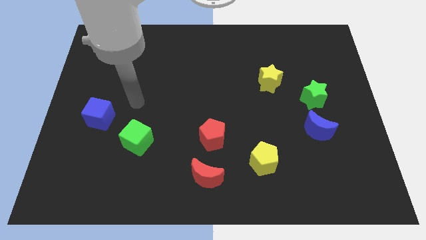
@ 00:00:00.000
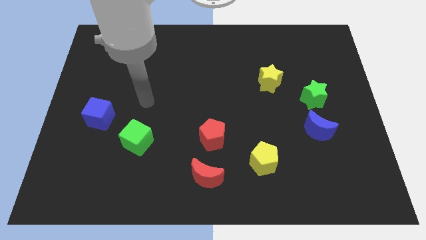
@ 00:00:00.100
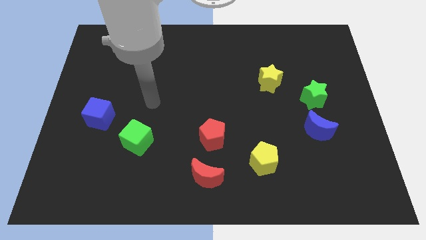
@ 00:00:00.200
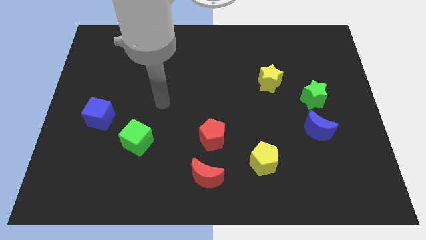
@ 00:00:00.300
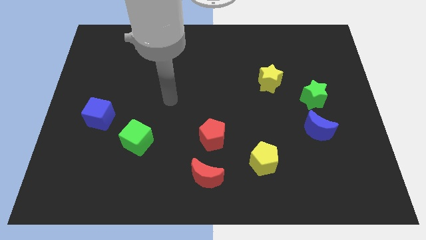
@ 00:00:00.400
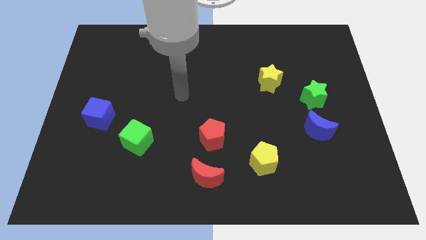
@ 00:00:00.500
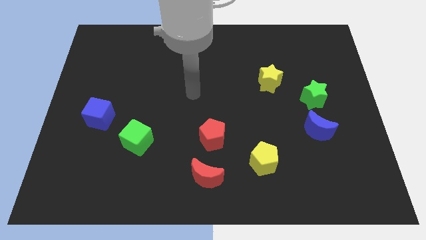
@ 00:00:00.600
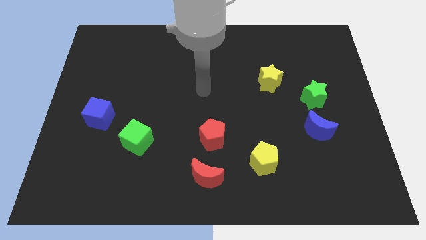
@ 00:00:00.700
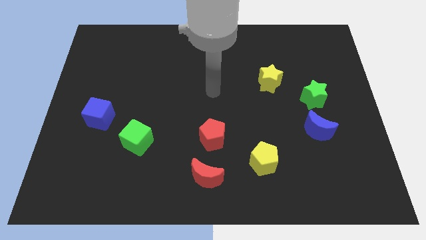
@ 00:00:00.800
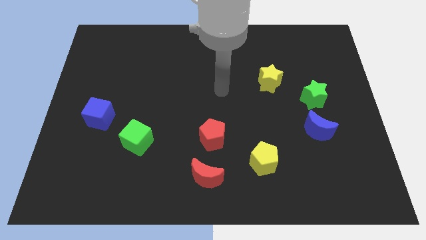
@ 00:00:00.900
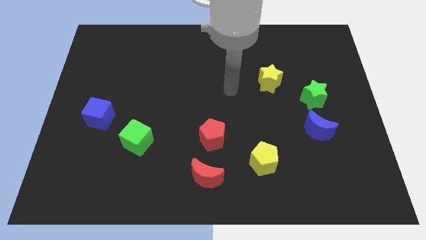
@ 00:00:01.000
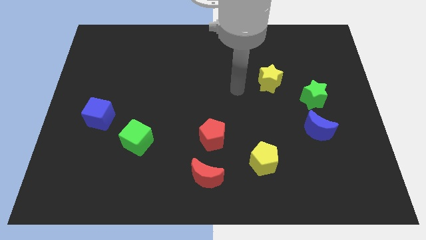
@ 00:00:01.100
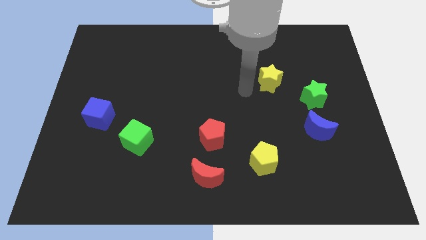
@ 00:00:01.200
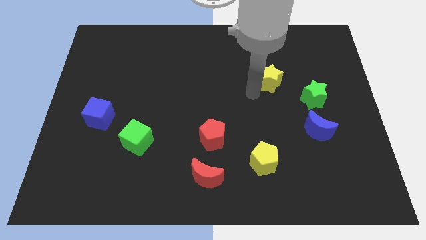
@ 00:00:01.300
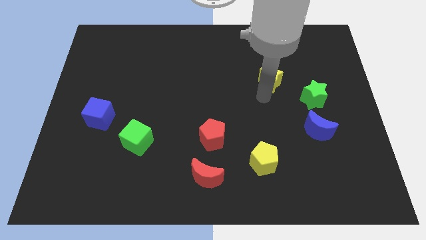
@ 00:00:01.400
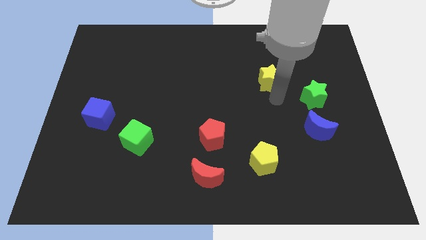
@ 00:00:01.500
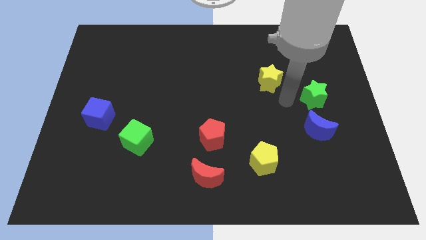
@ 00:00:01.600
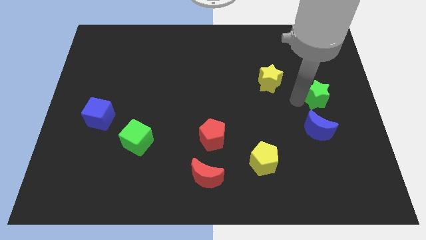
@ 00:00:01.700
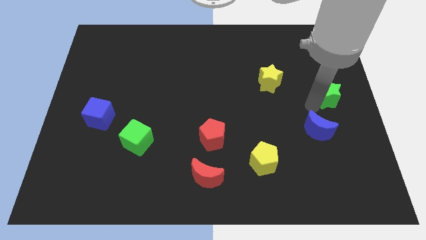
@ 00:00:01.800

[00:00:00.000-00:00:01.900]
pull the blue moon apart from the green star

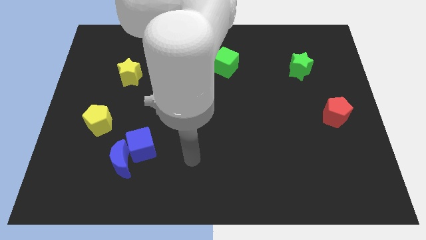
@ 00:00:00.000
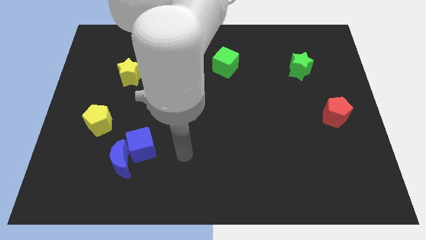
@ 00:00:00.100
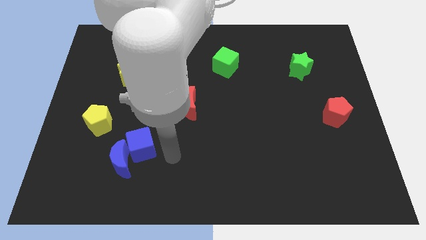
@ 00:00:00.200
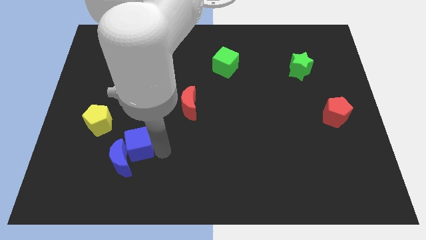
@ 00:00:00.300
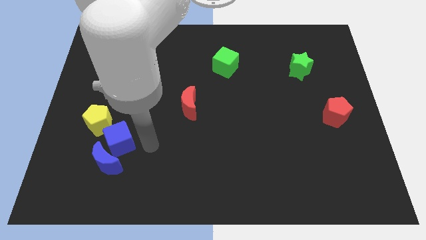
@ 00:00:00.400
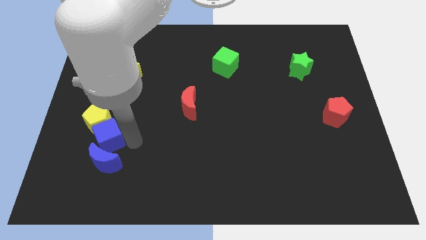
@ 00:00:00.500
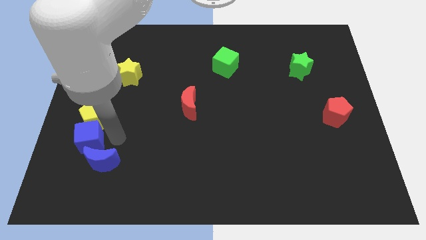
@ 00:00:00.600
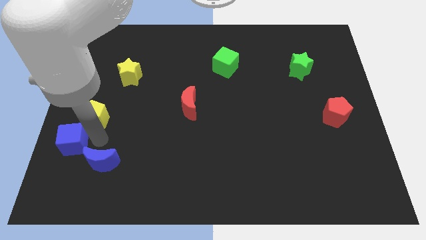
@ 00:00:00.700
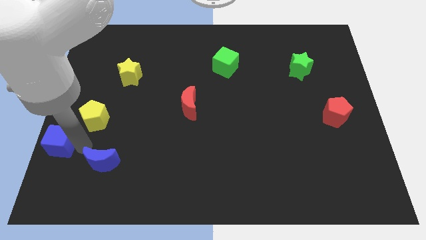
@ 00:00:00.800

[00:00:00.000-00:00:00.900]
move the blue moon away from the blue cube

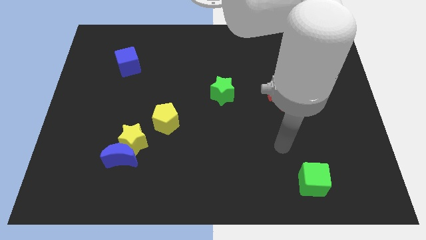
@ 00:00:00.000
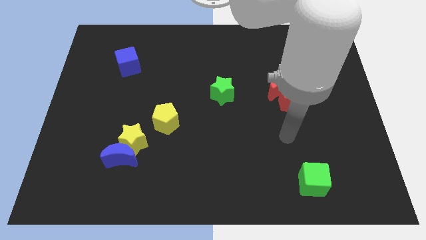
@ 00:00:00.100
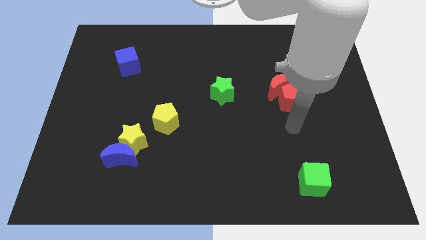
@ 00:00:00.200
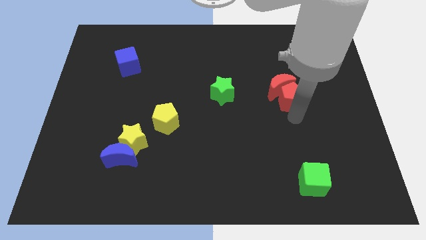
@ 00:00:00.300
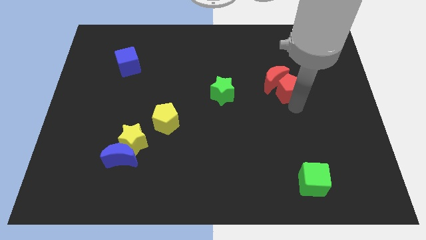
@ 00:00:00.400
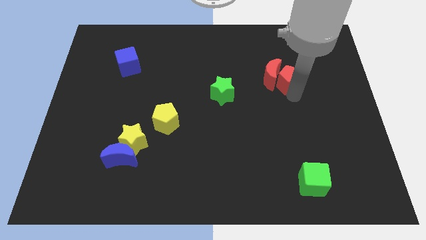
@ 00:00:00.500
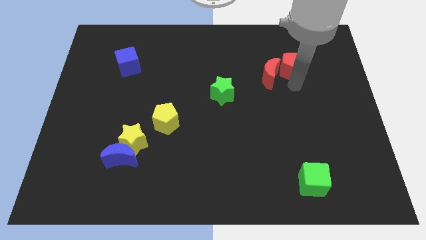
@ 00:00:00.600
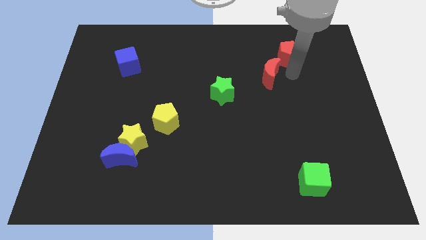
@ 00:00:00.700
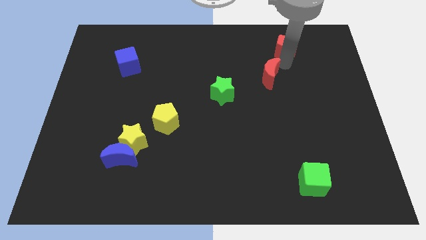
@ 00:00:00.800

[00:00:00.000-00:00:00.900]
separate the red moon from the red pentagon

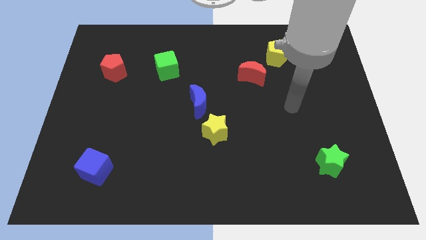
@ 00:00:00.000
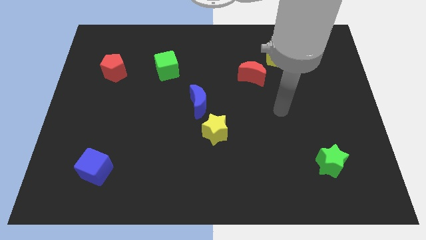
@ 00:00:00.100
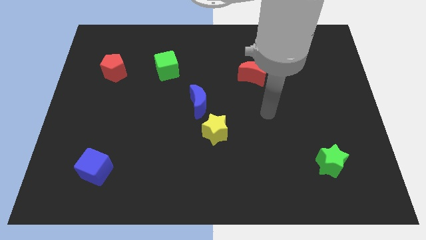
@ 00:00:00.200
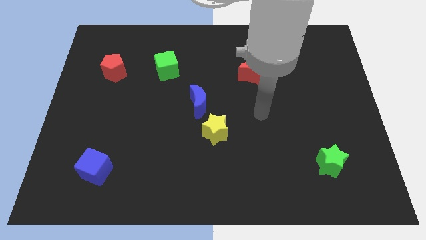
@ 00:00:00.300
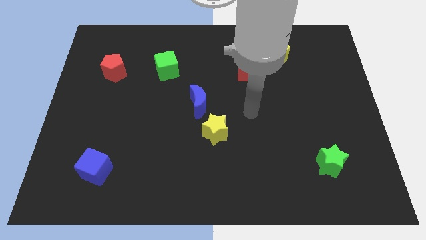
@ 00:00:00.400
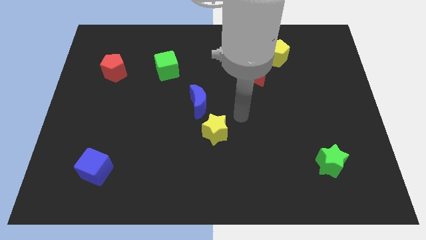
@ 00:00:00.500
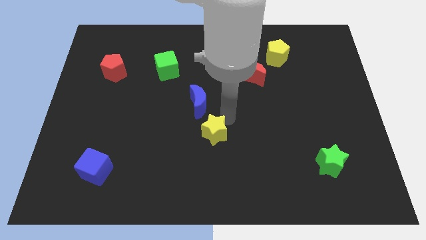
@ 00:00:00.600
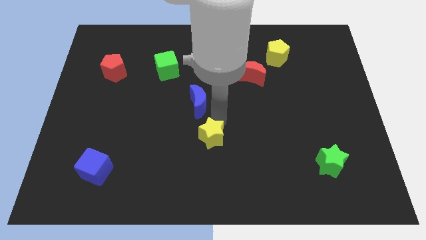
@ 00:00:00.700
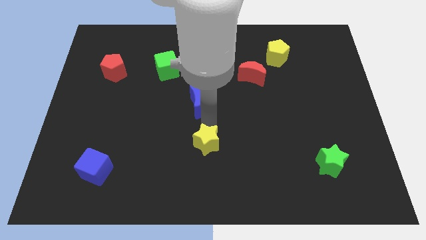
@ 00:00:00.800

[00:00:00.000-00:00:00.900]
separate the blue moon from the yellow star

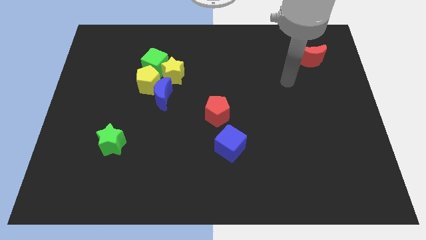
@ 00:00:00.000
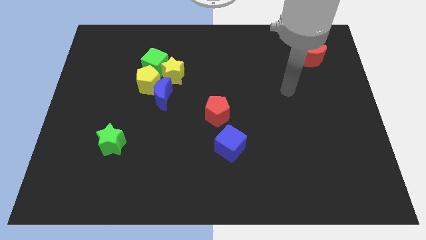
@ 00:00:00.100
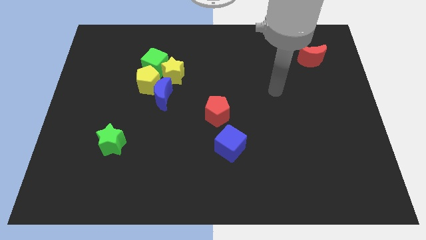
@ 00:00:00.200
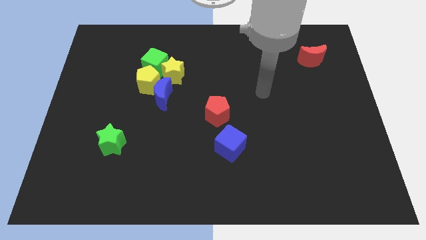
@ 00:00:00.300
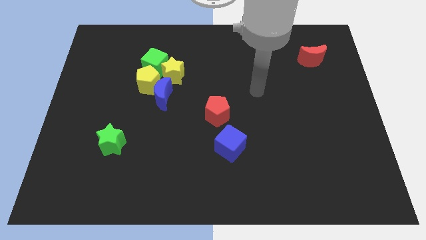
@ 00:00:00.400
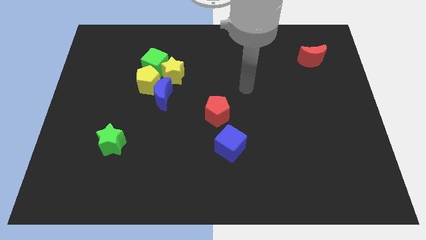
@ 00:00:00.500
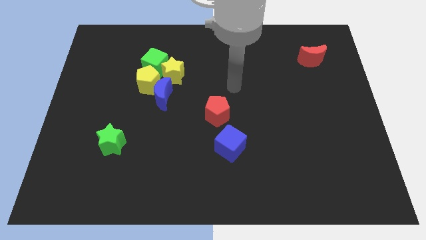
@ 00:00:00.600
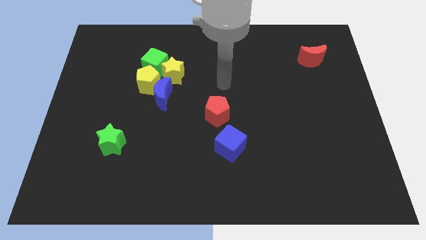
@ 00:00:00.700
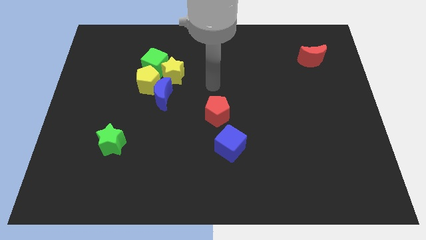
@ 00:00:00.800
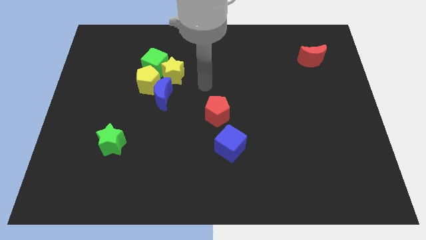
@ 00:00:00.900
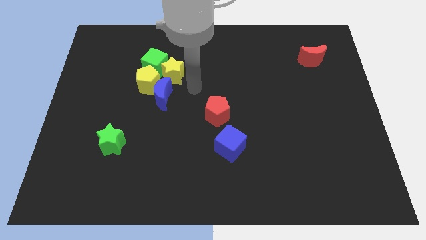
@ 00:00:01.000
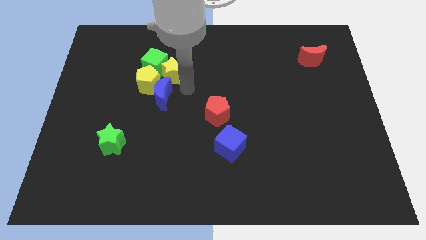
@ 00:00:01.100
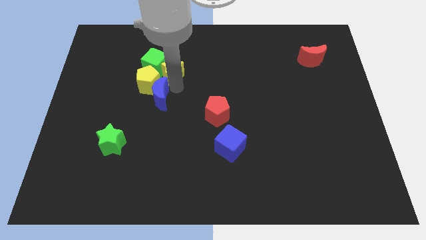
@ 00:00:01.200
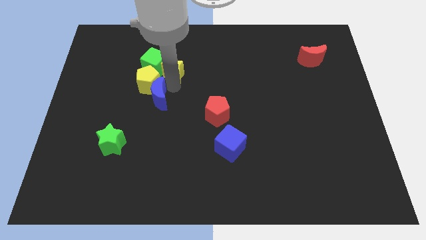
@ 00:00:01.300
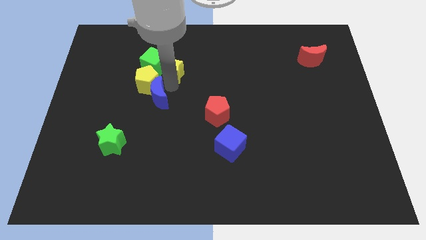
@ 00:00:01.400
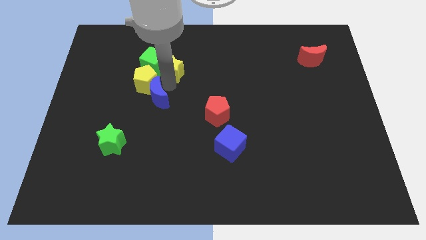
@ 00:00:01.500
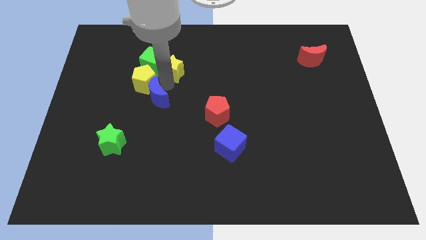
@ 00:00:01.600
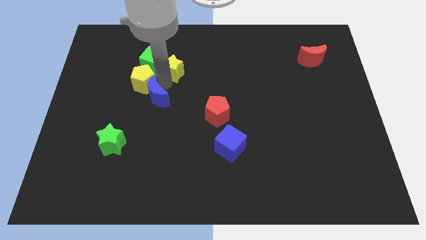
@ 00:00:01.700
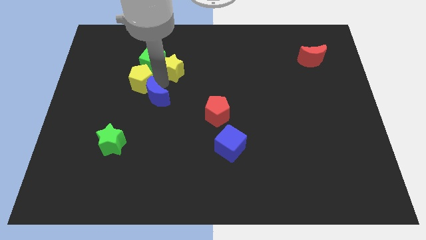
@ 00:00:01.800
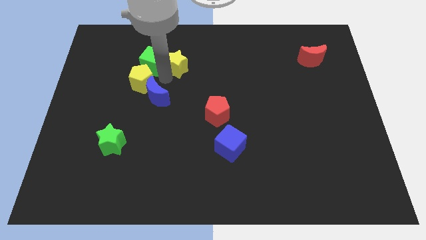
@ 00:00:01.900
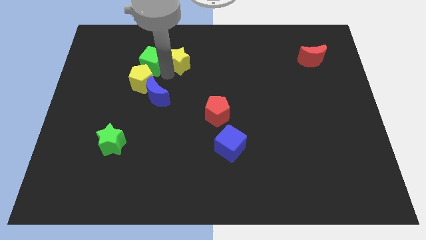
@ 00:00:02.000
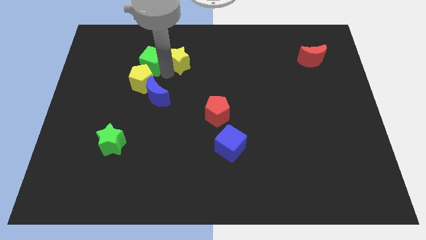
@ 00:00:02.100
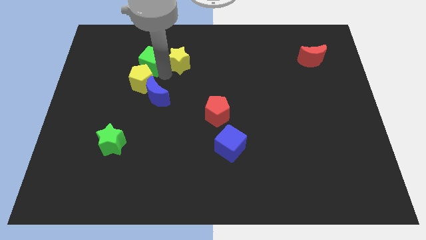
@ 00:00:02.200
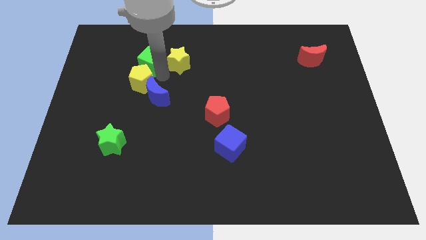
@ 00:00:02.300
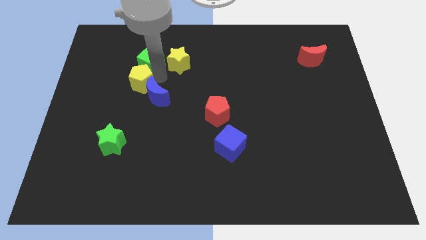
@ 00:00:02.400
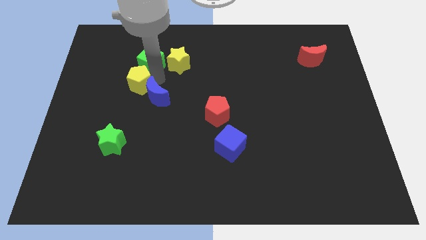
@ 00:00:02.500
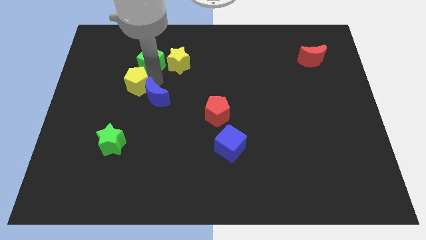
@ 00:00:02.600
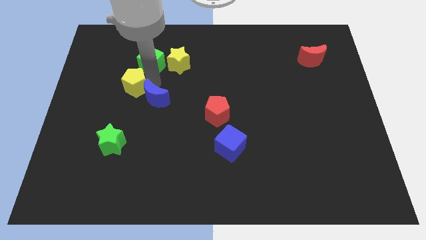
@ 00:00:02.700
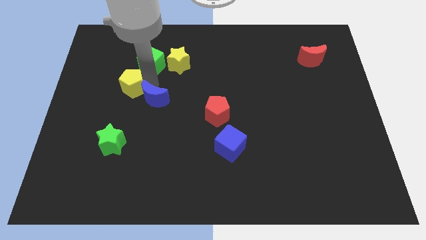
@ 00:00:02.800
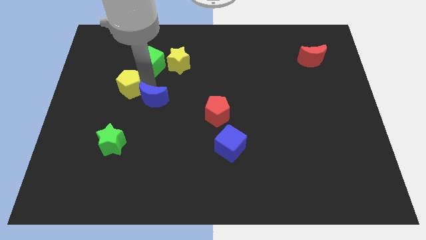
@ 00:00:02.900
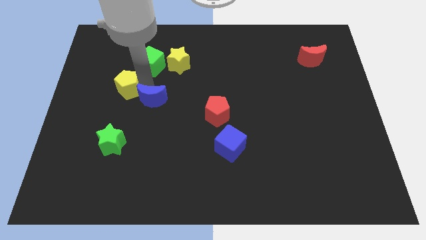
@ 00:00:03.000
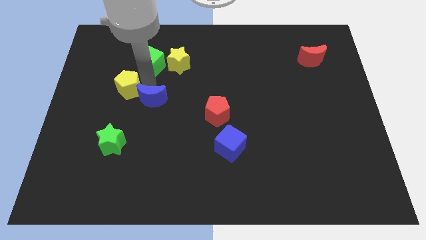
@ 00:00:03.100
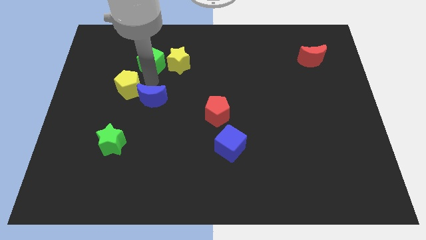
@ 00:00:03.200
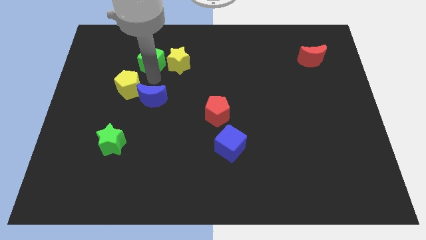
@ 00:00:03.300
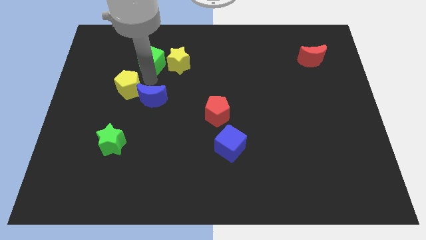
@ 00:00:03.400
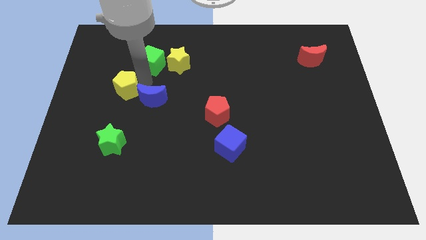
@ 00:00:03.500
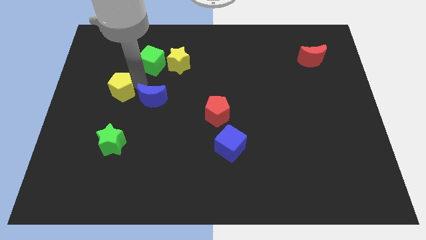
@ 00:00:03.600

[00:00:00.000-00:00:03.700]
separate the yellow pentagon from the blue moon, green cube, and yellow star

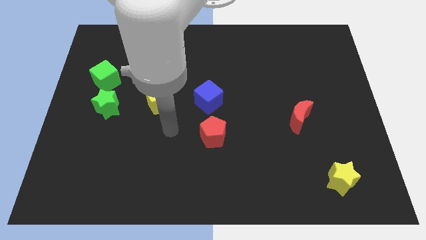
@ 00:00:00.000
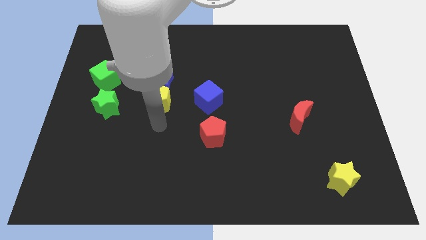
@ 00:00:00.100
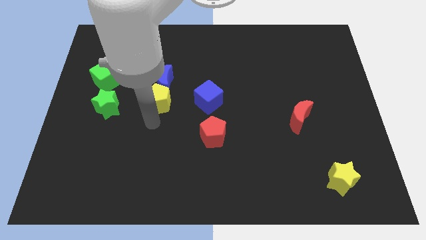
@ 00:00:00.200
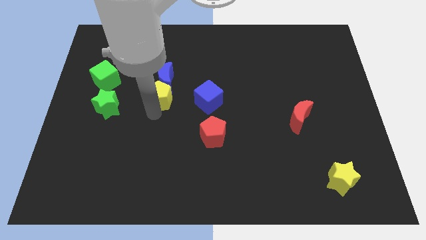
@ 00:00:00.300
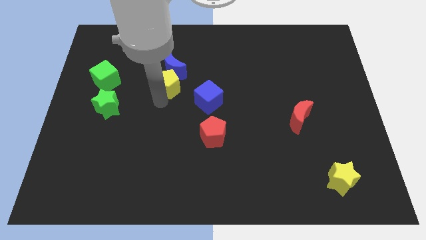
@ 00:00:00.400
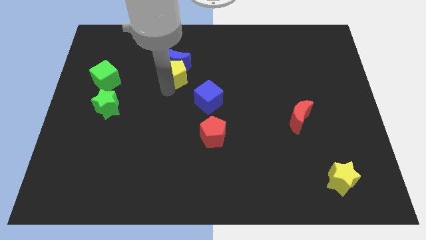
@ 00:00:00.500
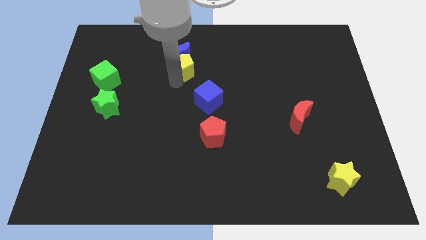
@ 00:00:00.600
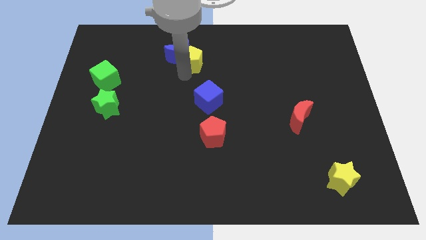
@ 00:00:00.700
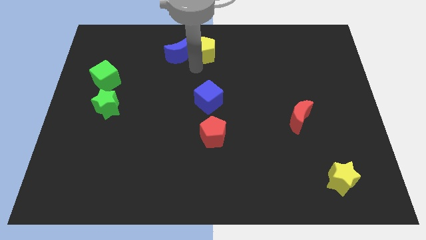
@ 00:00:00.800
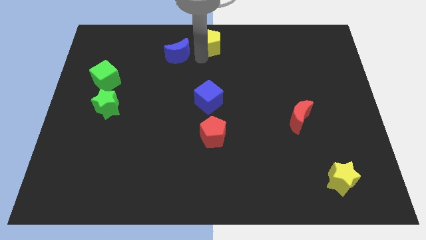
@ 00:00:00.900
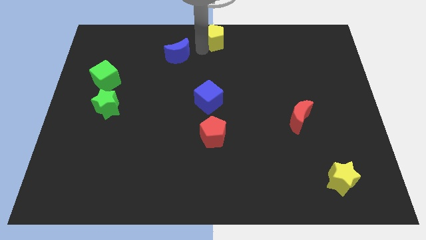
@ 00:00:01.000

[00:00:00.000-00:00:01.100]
separate the blue moon from the yellow pentagon
